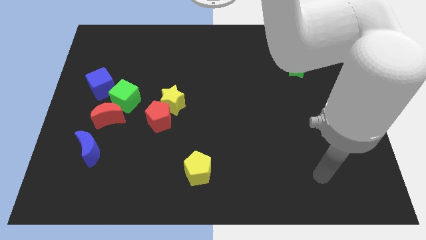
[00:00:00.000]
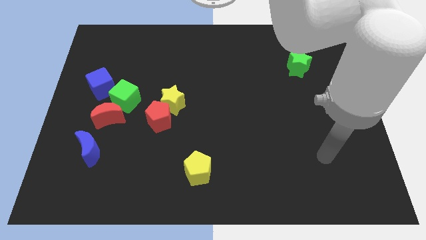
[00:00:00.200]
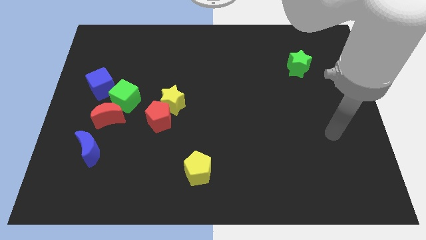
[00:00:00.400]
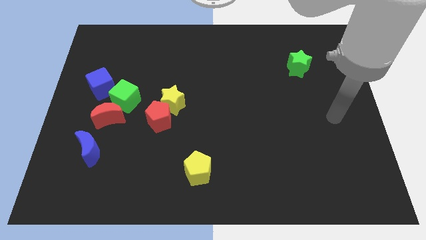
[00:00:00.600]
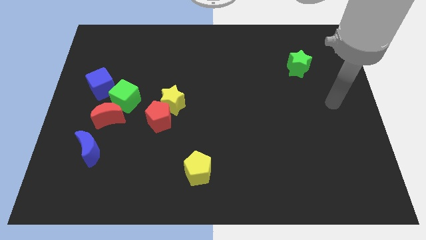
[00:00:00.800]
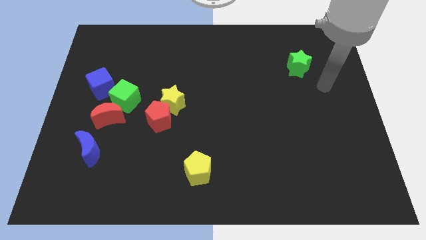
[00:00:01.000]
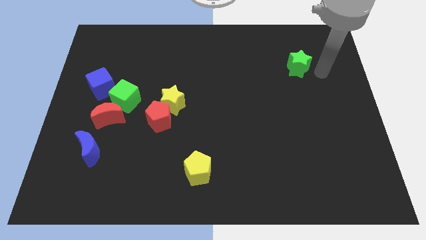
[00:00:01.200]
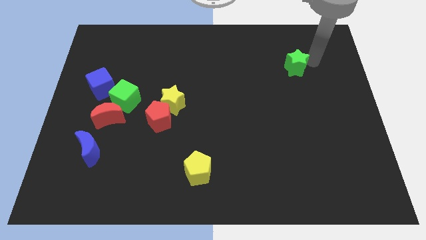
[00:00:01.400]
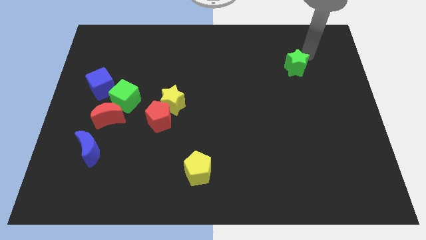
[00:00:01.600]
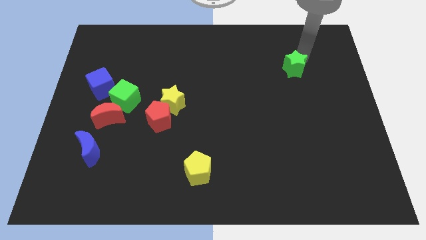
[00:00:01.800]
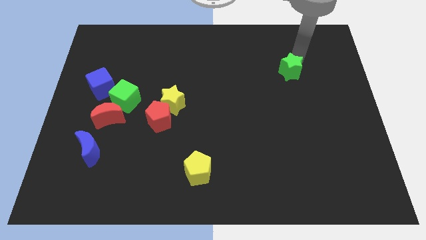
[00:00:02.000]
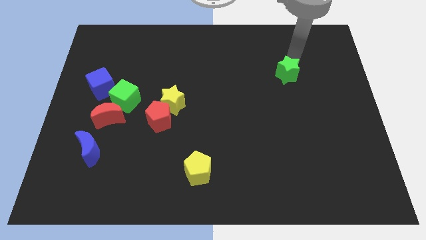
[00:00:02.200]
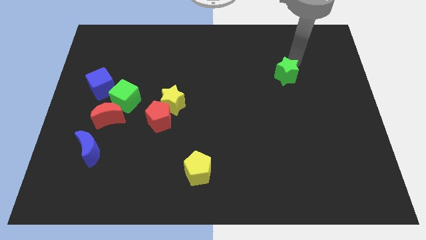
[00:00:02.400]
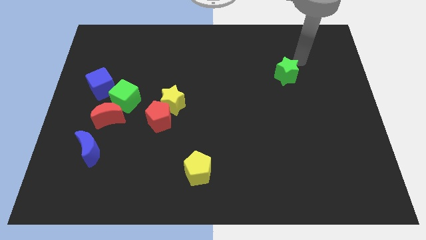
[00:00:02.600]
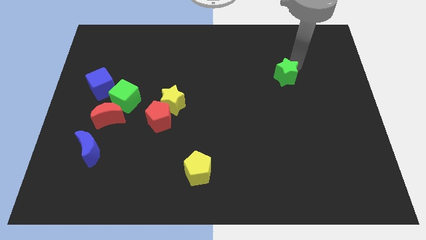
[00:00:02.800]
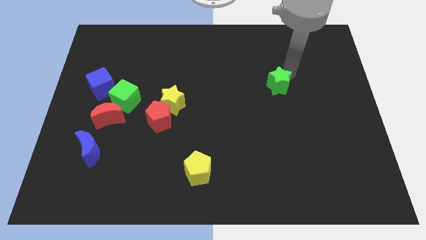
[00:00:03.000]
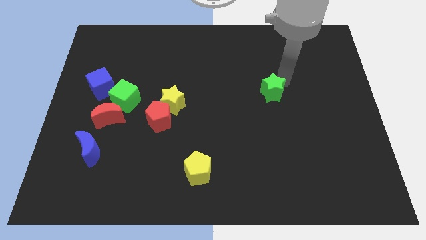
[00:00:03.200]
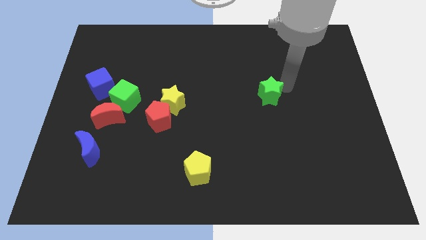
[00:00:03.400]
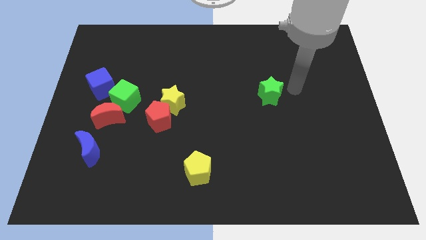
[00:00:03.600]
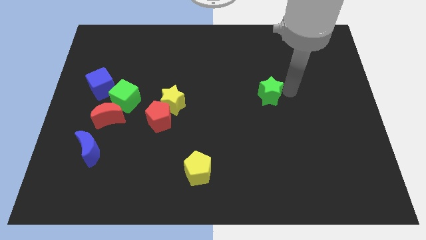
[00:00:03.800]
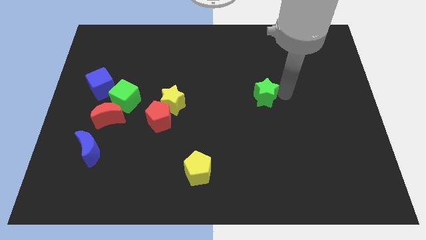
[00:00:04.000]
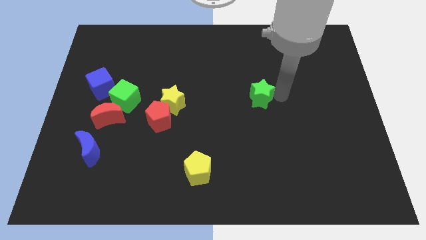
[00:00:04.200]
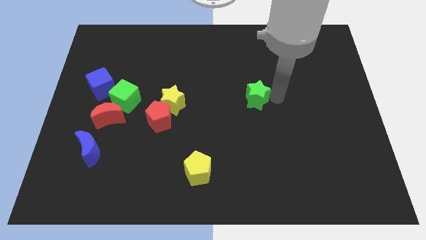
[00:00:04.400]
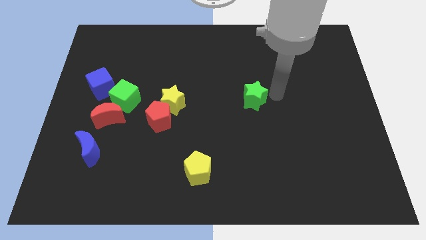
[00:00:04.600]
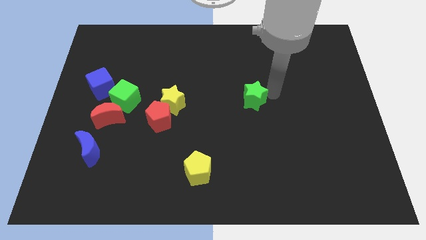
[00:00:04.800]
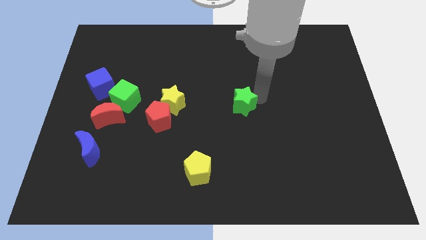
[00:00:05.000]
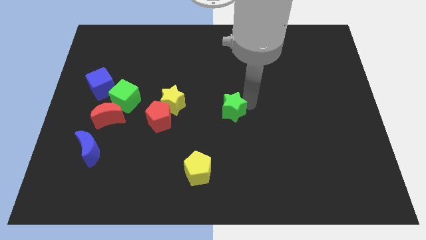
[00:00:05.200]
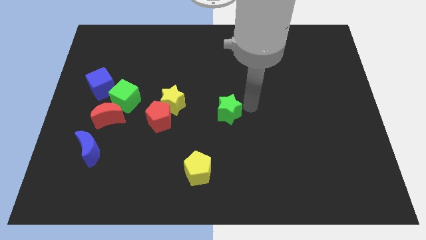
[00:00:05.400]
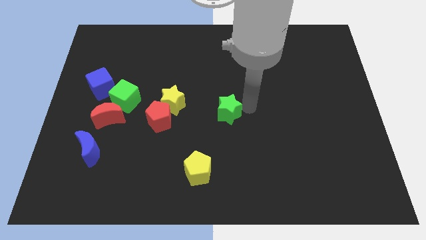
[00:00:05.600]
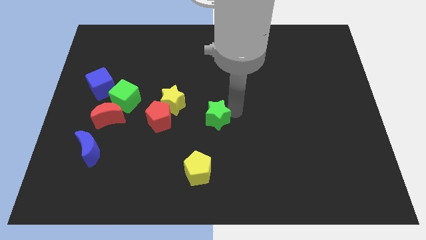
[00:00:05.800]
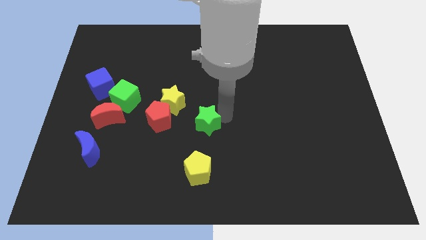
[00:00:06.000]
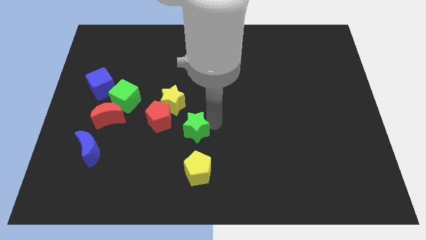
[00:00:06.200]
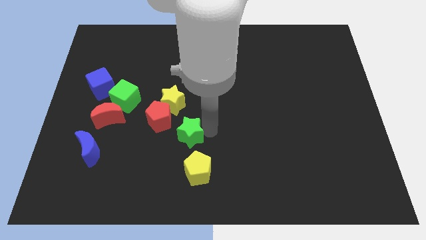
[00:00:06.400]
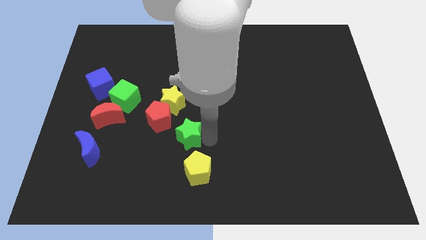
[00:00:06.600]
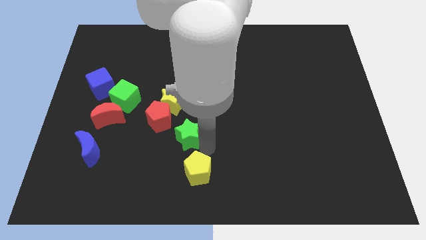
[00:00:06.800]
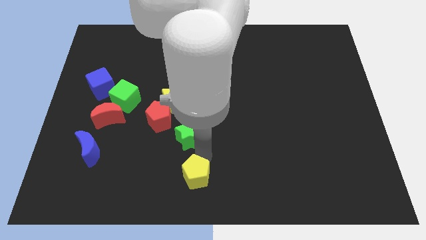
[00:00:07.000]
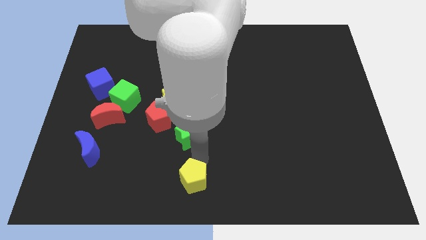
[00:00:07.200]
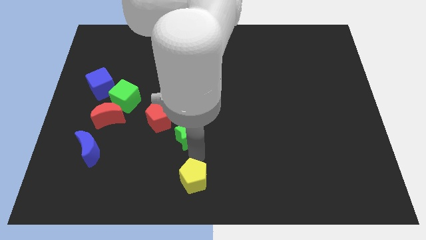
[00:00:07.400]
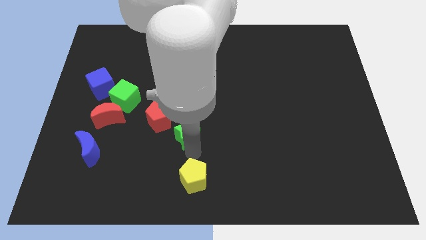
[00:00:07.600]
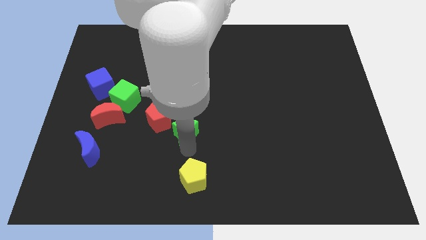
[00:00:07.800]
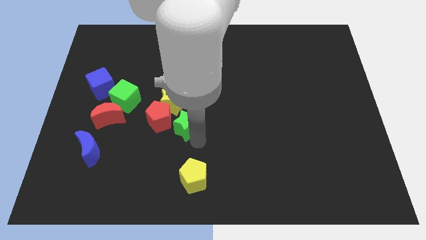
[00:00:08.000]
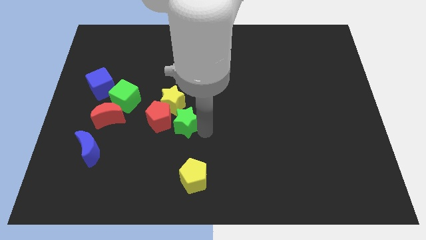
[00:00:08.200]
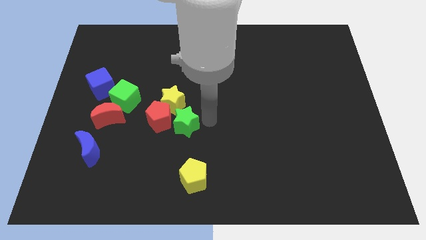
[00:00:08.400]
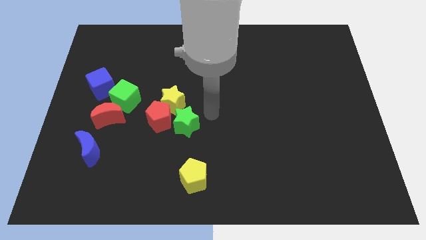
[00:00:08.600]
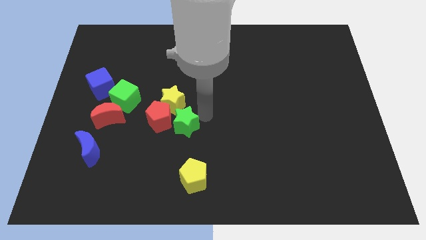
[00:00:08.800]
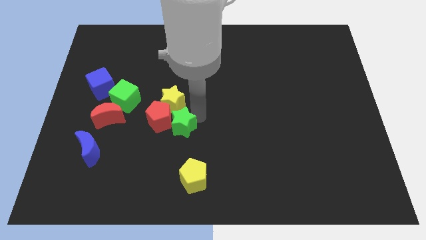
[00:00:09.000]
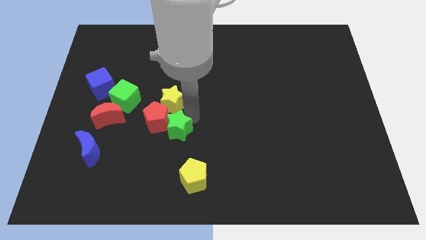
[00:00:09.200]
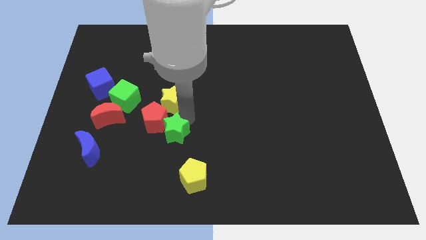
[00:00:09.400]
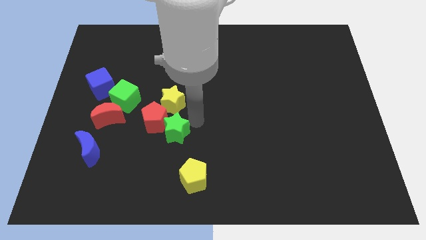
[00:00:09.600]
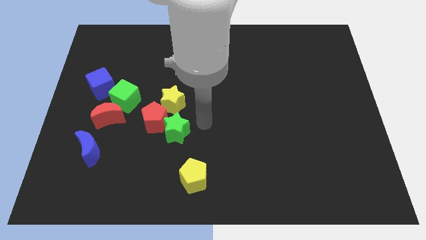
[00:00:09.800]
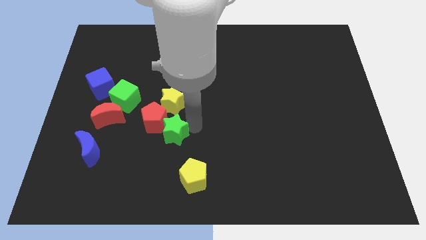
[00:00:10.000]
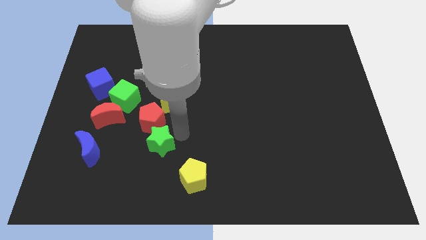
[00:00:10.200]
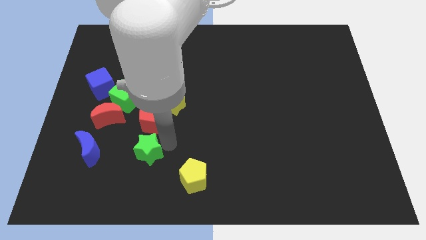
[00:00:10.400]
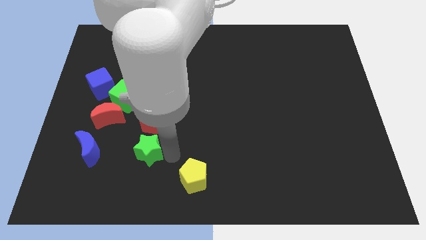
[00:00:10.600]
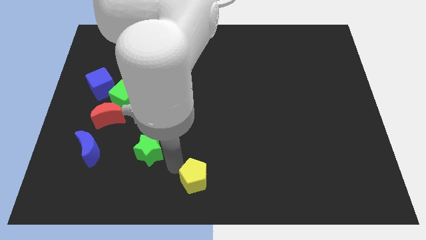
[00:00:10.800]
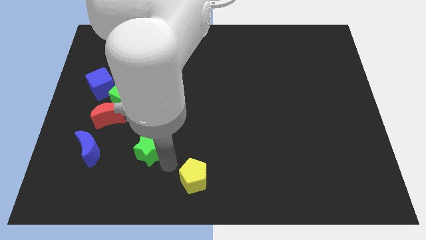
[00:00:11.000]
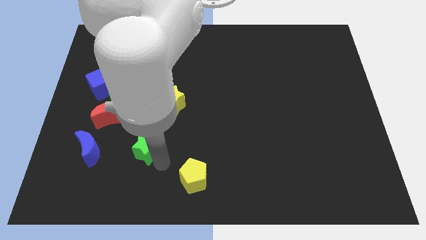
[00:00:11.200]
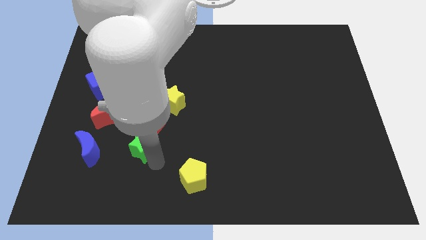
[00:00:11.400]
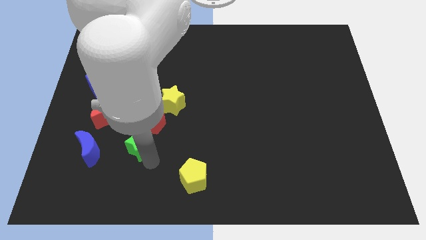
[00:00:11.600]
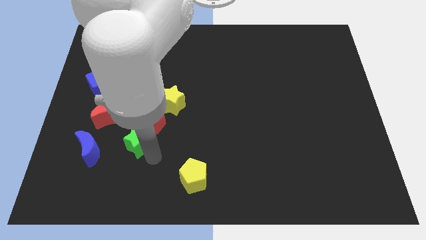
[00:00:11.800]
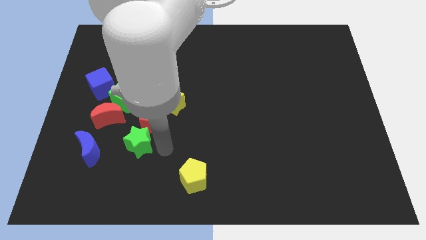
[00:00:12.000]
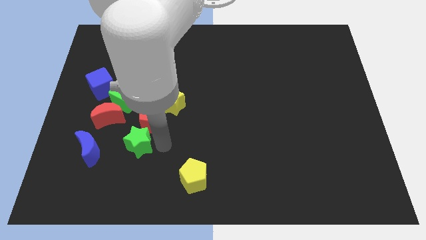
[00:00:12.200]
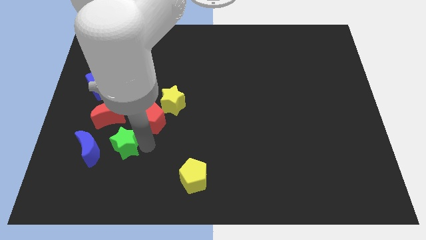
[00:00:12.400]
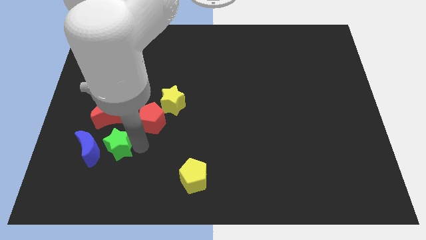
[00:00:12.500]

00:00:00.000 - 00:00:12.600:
push the green star towards the blue moon
